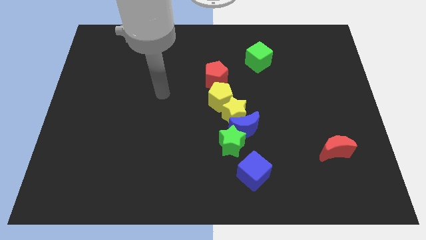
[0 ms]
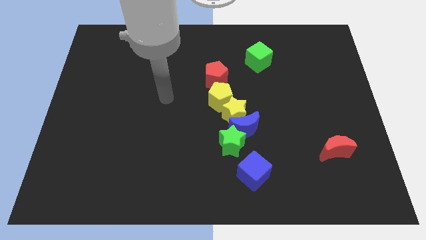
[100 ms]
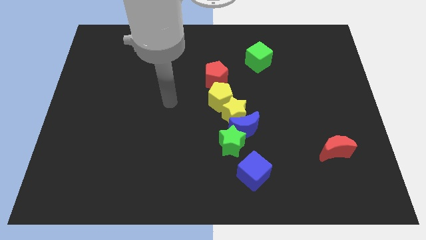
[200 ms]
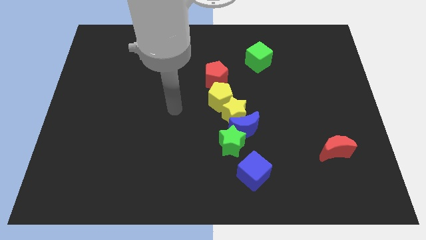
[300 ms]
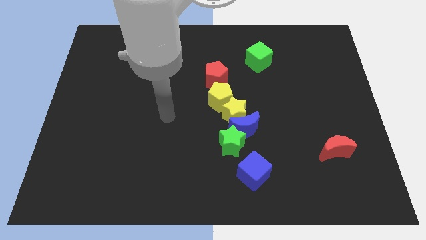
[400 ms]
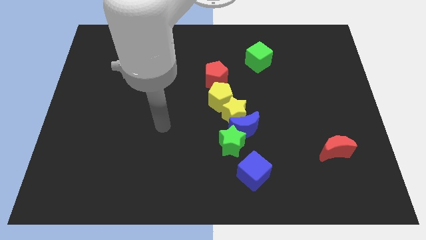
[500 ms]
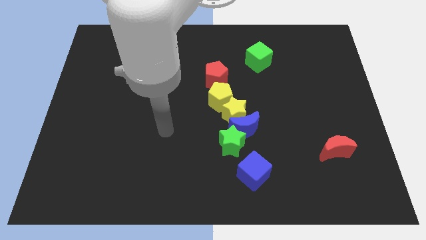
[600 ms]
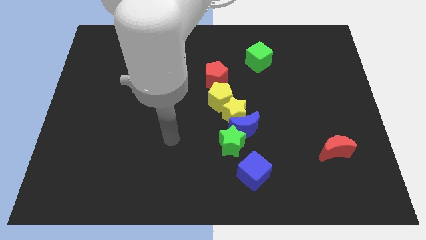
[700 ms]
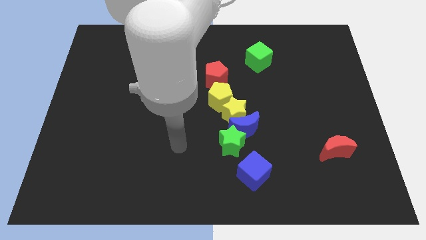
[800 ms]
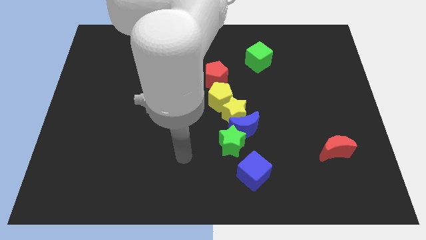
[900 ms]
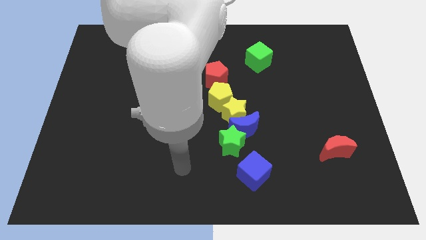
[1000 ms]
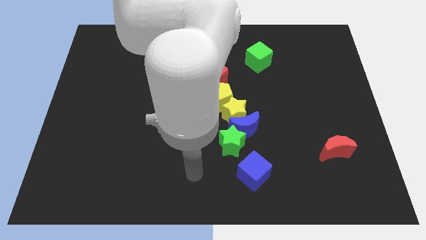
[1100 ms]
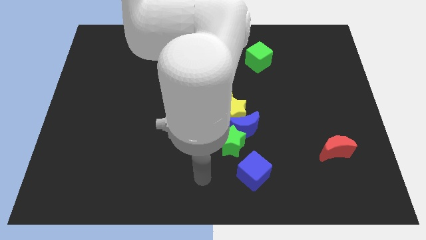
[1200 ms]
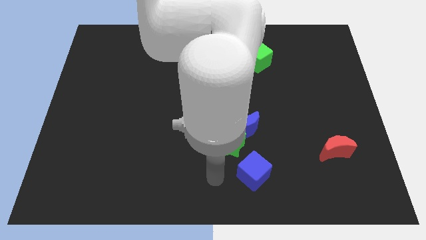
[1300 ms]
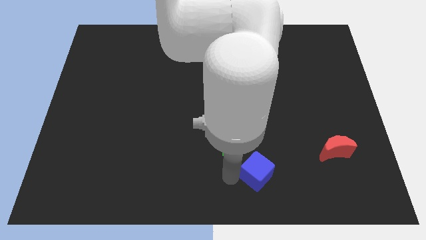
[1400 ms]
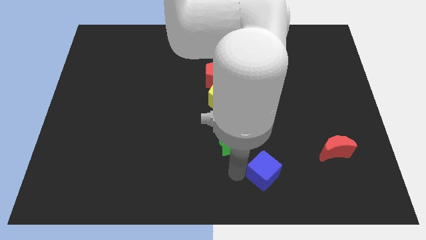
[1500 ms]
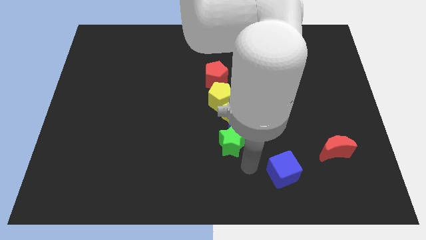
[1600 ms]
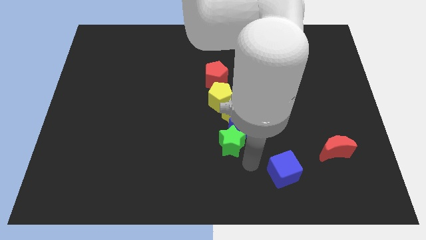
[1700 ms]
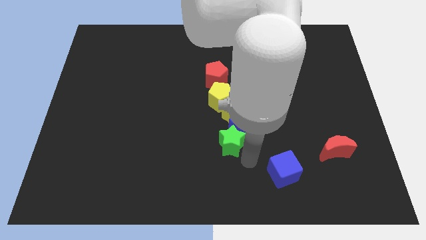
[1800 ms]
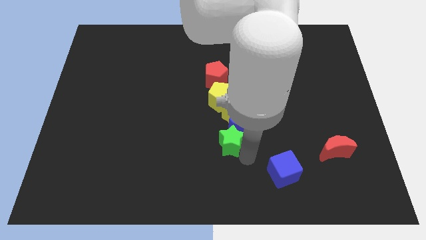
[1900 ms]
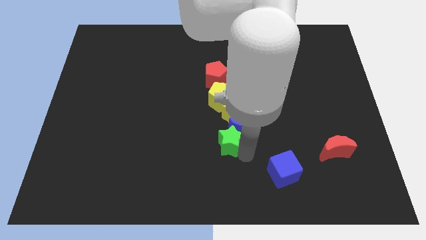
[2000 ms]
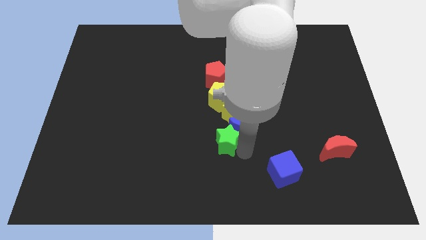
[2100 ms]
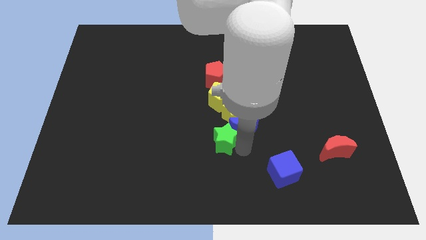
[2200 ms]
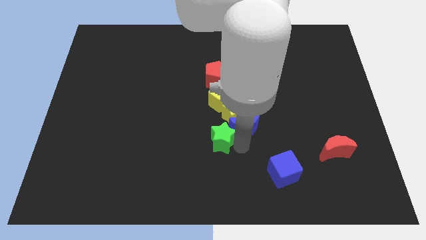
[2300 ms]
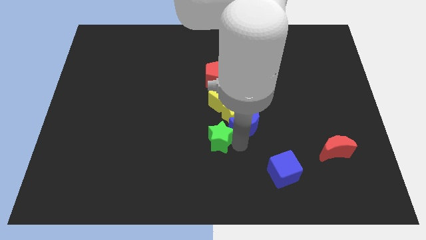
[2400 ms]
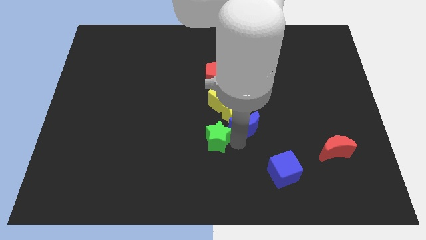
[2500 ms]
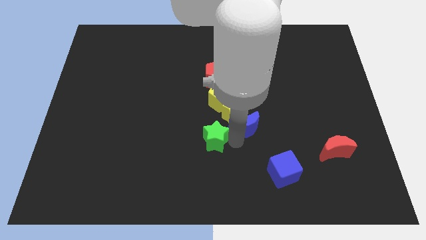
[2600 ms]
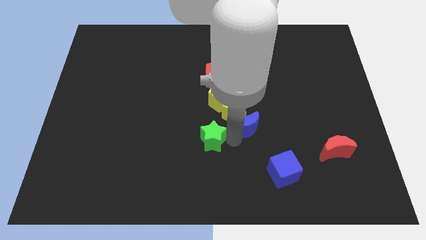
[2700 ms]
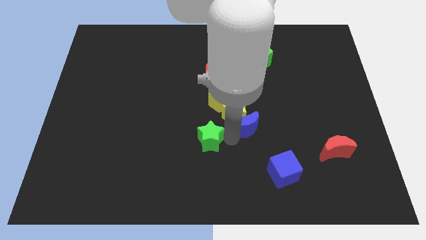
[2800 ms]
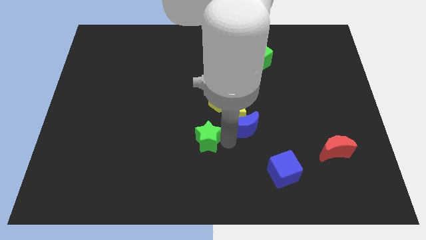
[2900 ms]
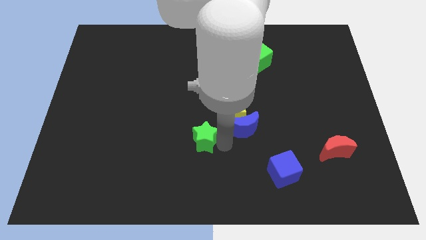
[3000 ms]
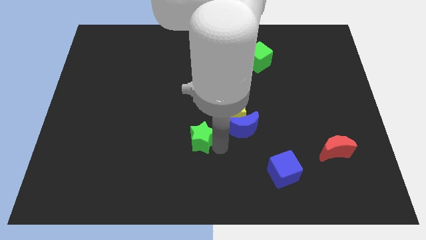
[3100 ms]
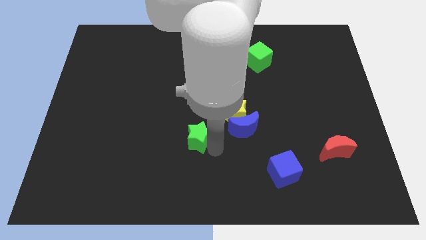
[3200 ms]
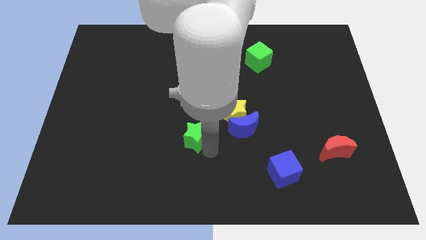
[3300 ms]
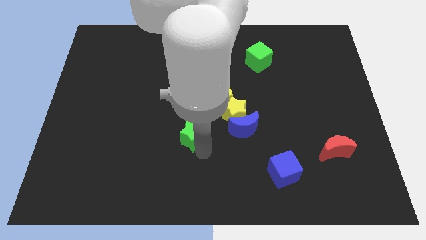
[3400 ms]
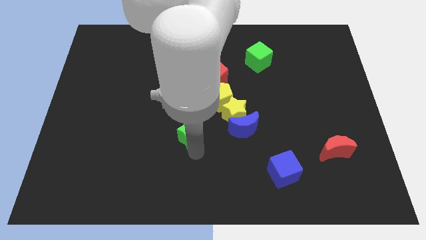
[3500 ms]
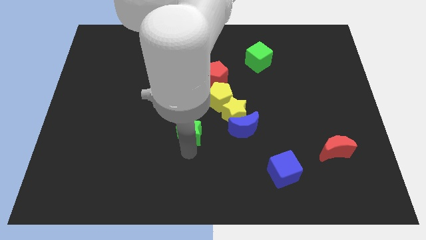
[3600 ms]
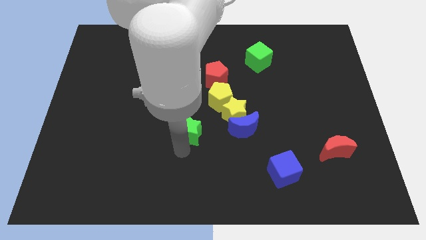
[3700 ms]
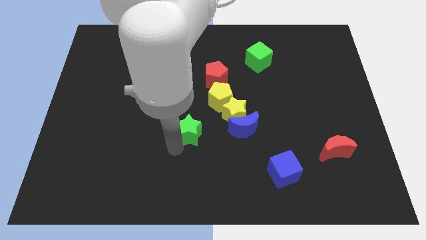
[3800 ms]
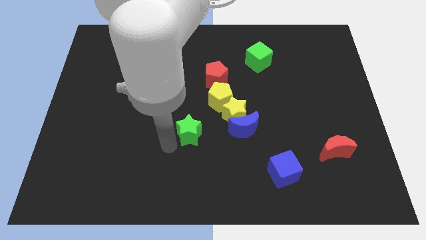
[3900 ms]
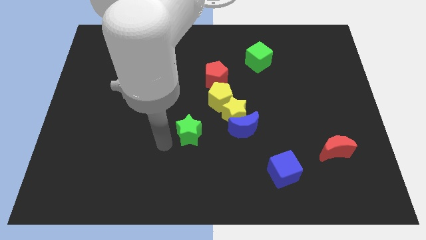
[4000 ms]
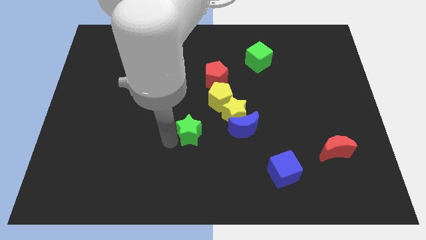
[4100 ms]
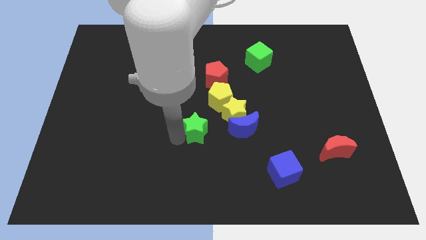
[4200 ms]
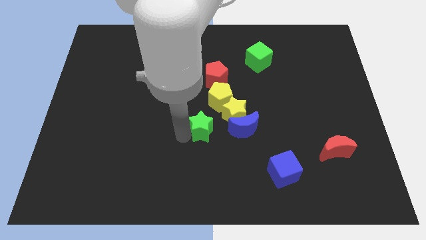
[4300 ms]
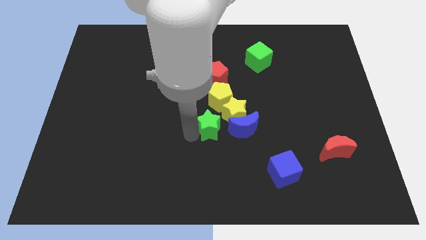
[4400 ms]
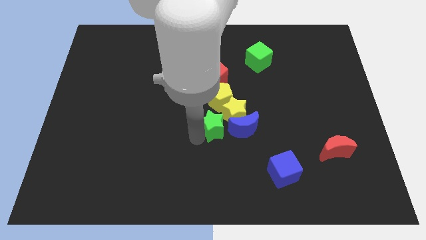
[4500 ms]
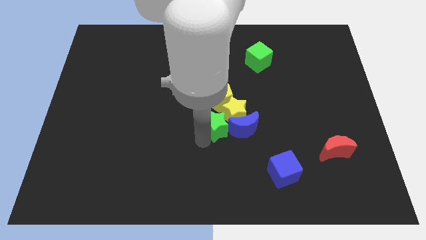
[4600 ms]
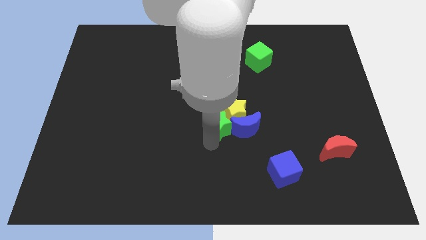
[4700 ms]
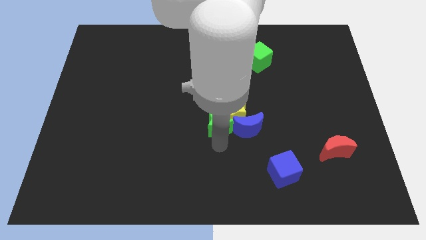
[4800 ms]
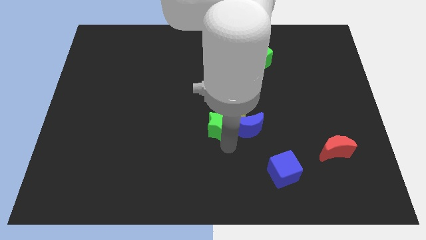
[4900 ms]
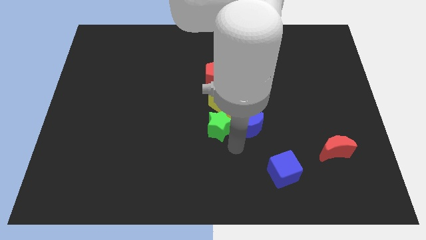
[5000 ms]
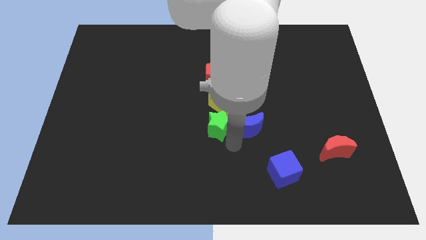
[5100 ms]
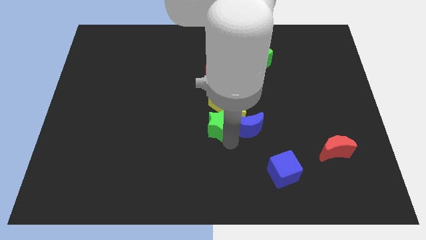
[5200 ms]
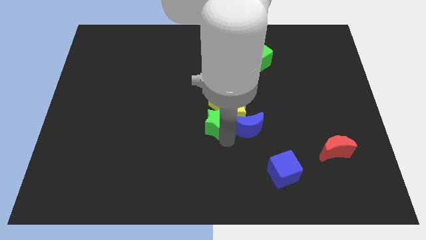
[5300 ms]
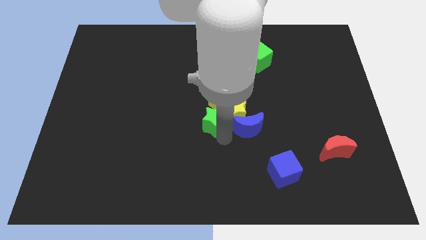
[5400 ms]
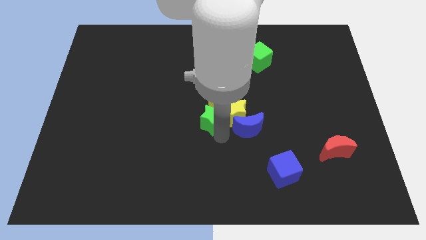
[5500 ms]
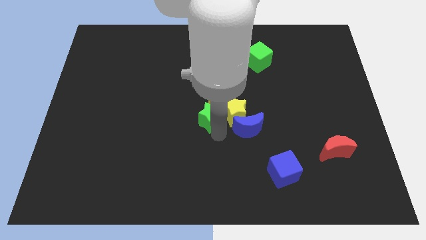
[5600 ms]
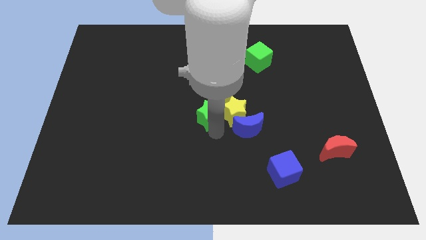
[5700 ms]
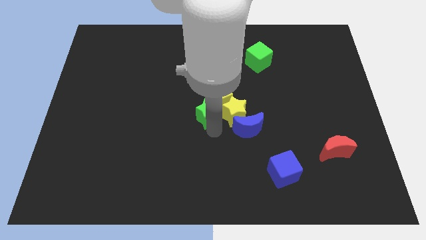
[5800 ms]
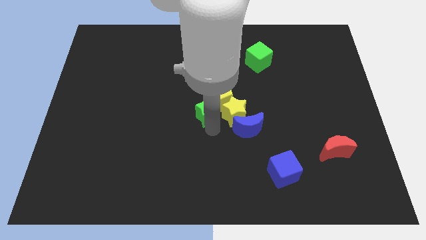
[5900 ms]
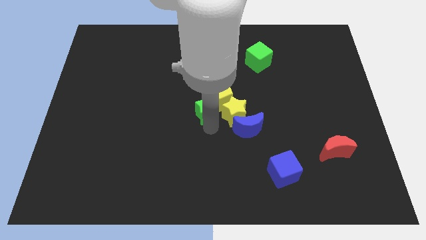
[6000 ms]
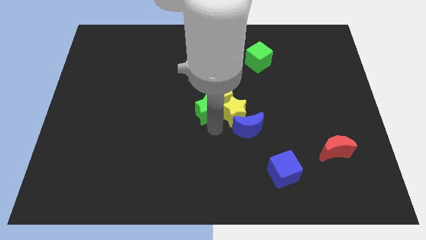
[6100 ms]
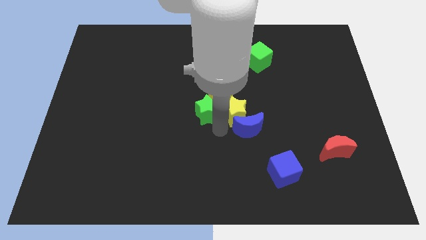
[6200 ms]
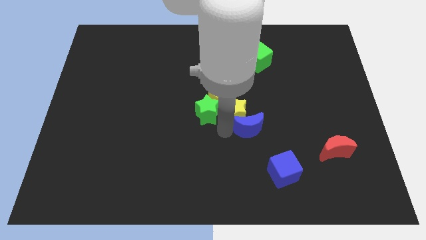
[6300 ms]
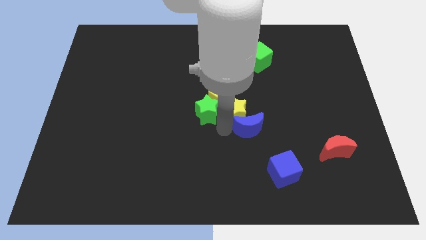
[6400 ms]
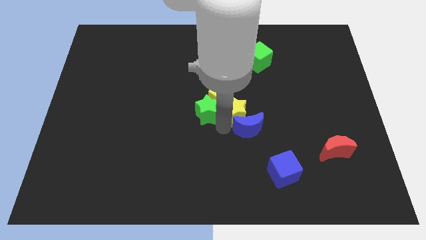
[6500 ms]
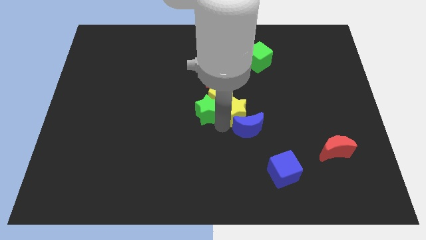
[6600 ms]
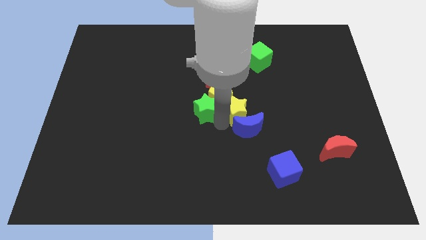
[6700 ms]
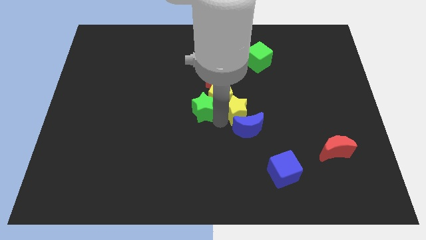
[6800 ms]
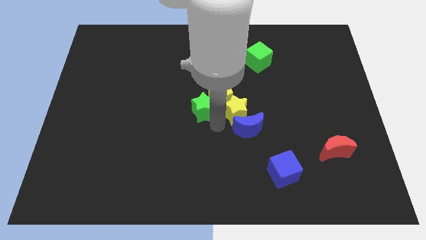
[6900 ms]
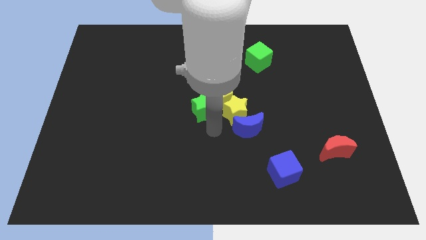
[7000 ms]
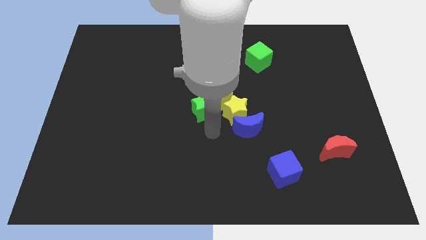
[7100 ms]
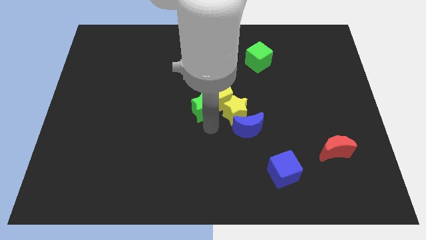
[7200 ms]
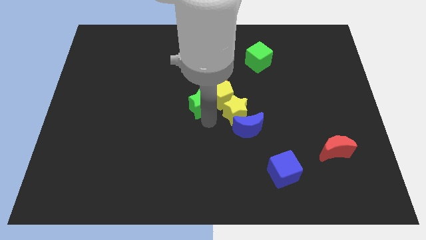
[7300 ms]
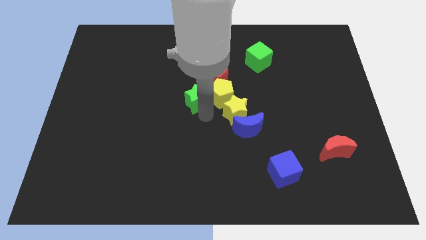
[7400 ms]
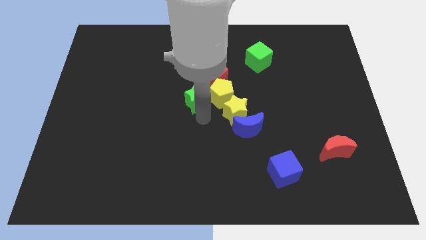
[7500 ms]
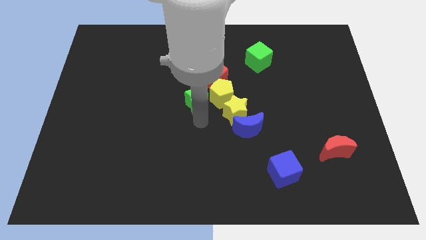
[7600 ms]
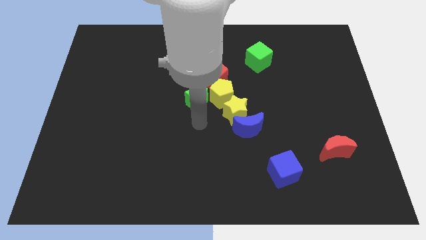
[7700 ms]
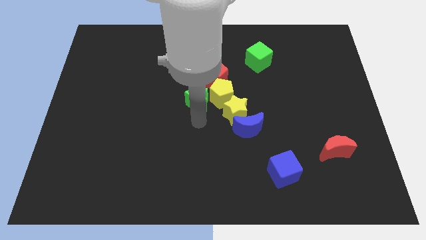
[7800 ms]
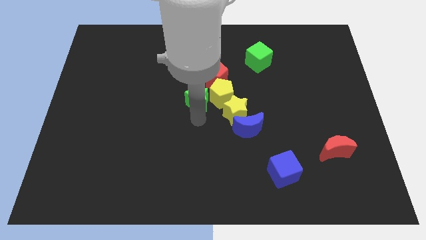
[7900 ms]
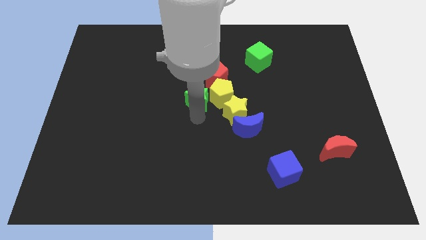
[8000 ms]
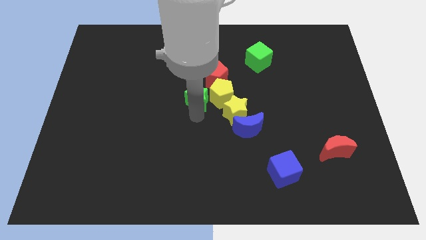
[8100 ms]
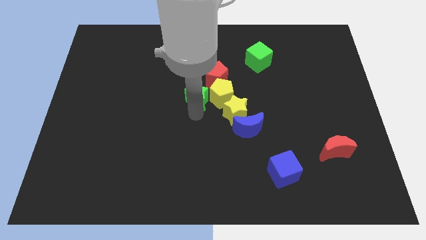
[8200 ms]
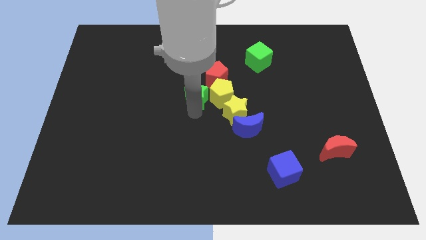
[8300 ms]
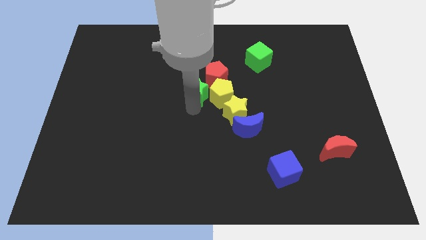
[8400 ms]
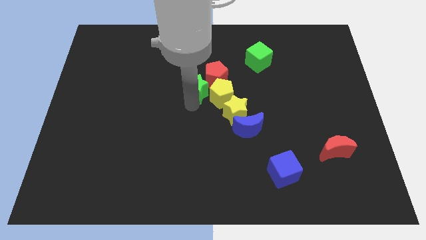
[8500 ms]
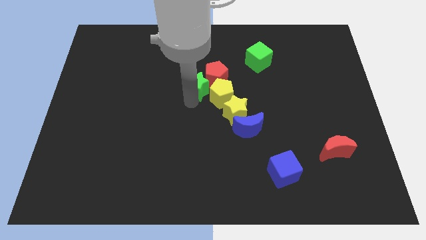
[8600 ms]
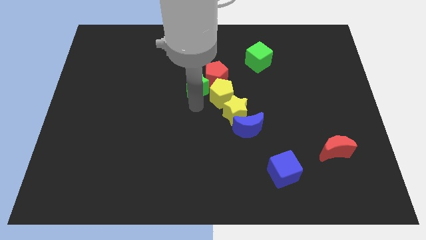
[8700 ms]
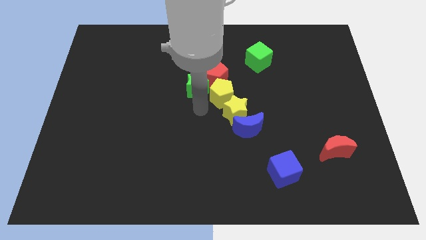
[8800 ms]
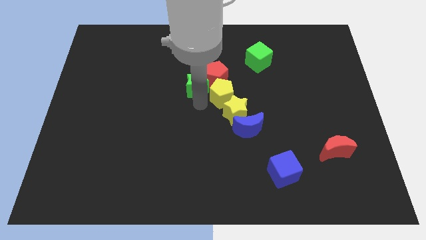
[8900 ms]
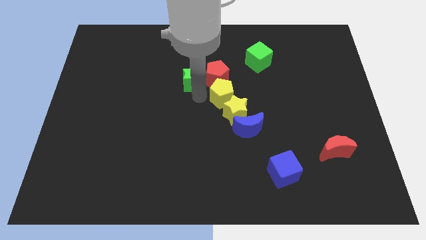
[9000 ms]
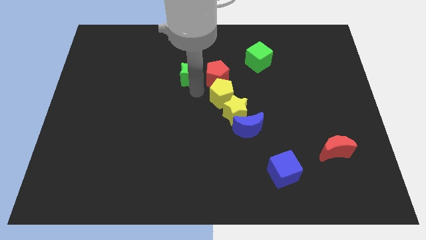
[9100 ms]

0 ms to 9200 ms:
put the green star diagonally up and to the left of the red pentagon
